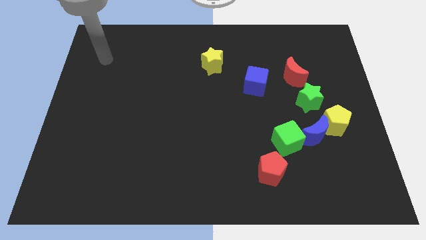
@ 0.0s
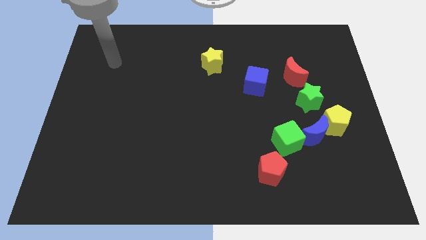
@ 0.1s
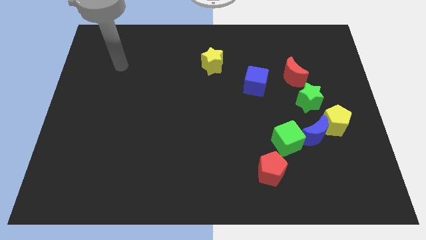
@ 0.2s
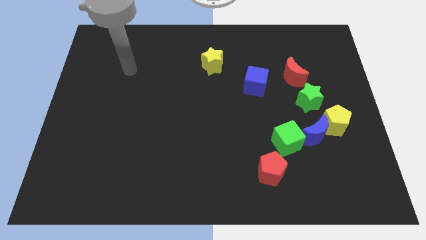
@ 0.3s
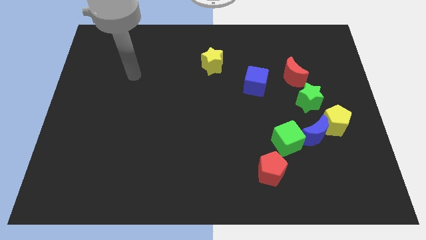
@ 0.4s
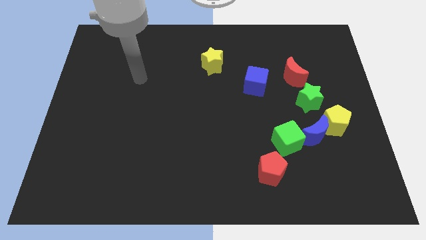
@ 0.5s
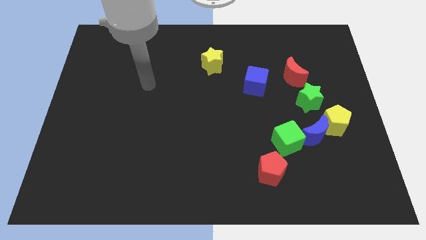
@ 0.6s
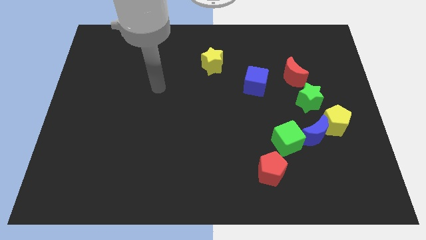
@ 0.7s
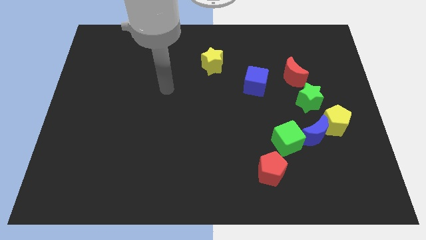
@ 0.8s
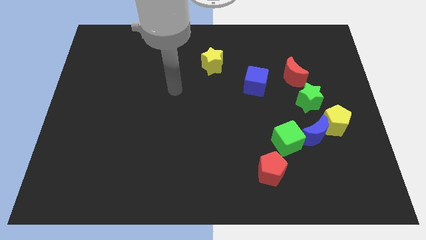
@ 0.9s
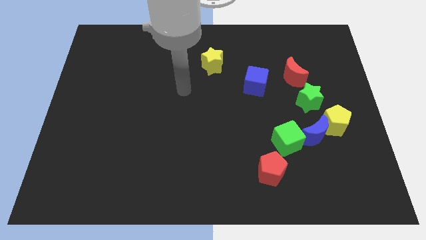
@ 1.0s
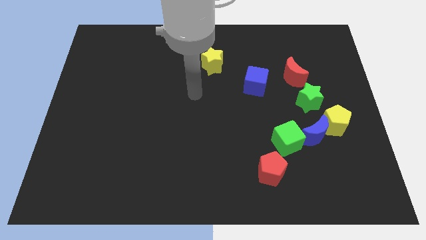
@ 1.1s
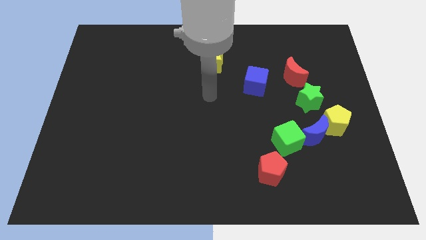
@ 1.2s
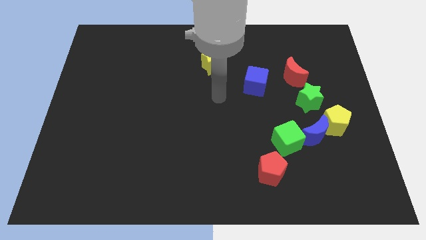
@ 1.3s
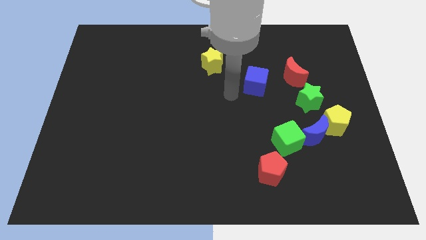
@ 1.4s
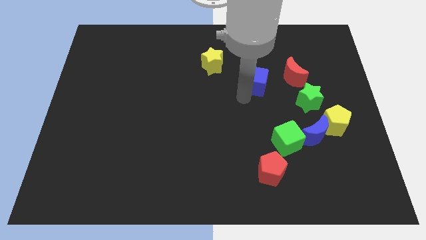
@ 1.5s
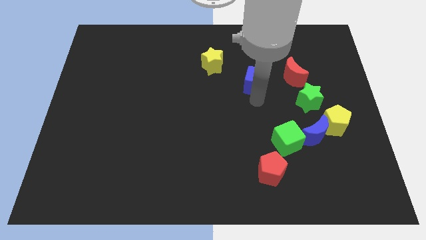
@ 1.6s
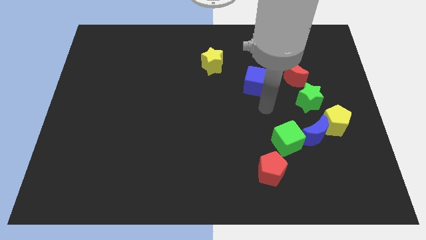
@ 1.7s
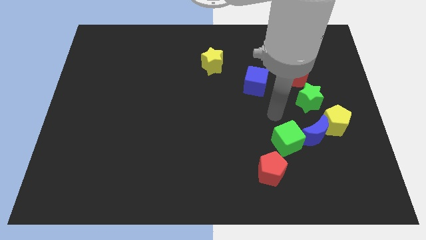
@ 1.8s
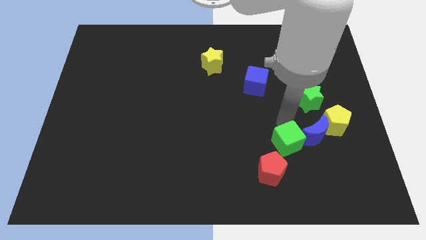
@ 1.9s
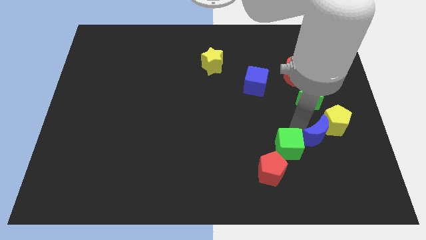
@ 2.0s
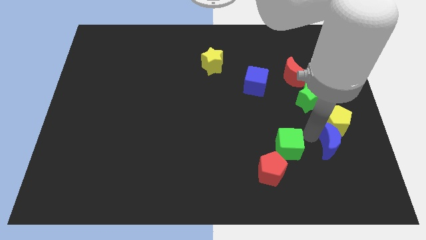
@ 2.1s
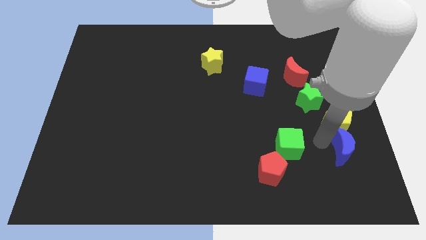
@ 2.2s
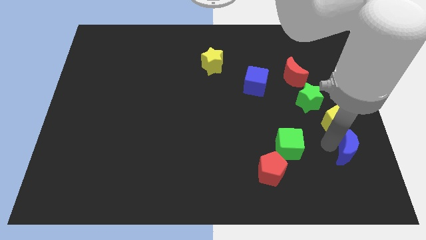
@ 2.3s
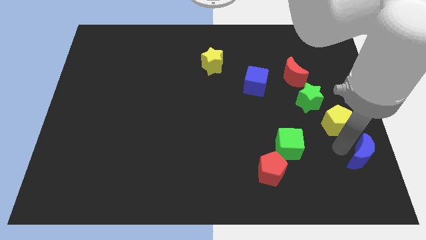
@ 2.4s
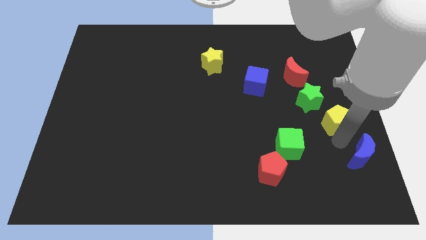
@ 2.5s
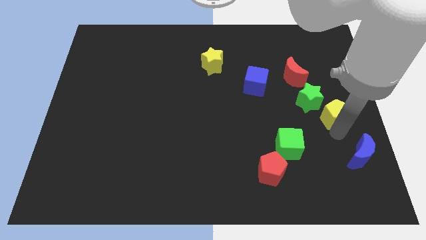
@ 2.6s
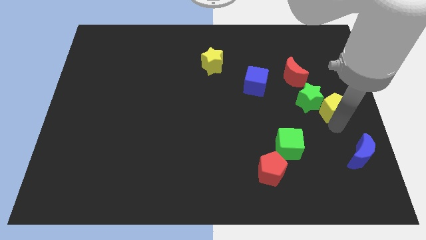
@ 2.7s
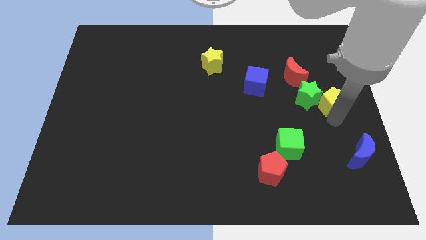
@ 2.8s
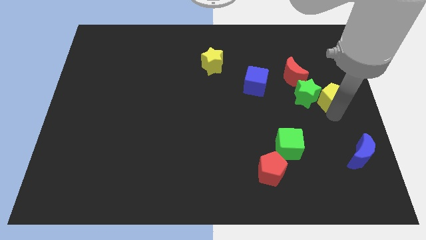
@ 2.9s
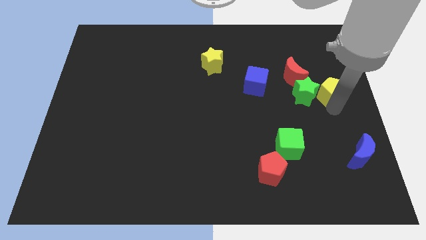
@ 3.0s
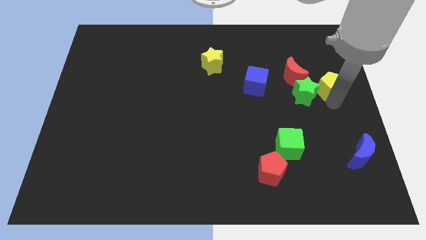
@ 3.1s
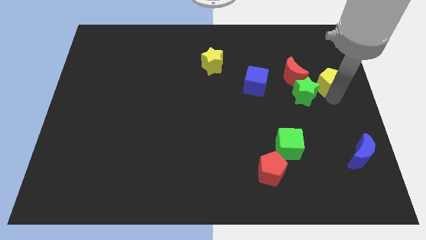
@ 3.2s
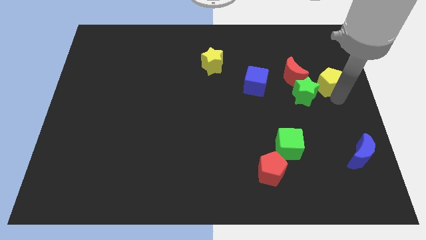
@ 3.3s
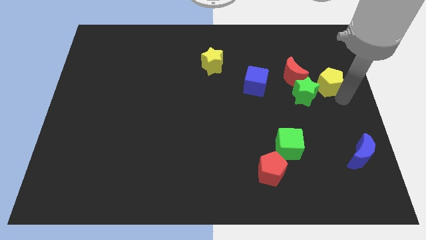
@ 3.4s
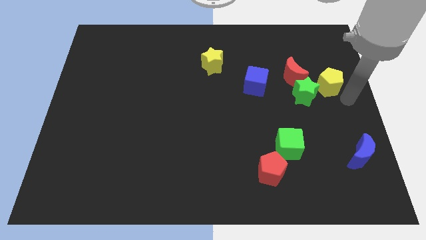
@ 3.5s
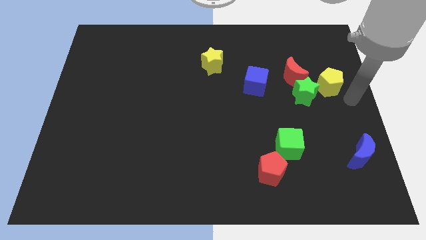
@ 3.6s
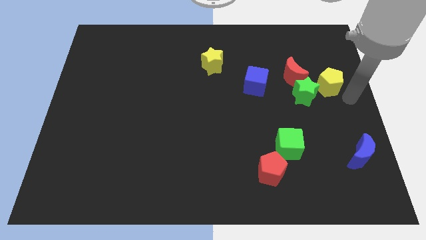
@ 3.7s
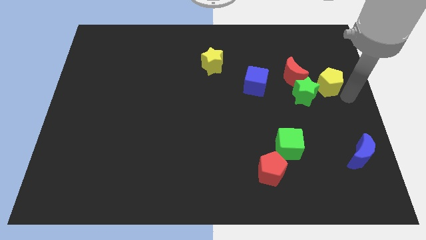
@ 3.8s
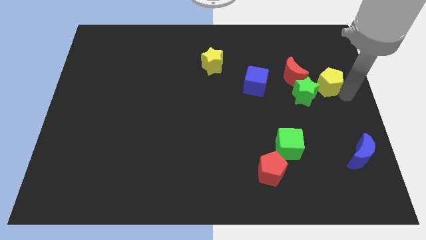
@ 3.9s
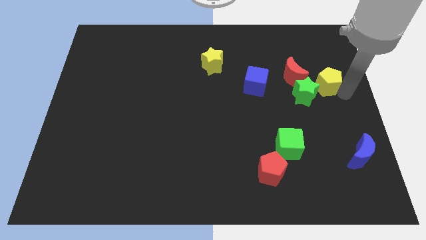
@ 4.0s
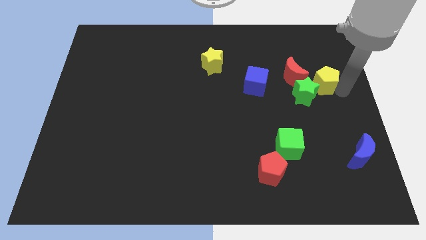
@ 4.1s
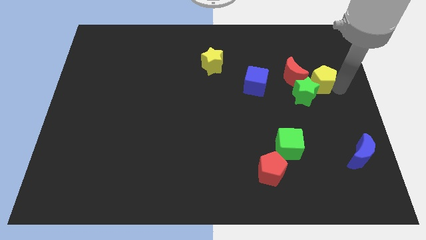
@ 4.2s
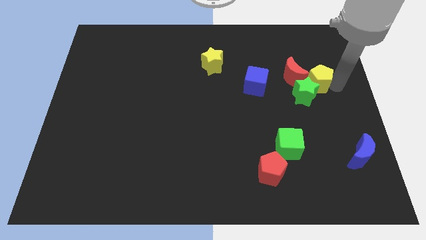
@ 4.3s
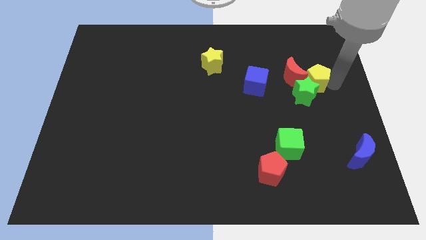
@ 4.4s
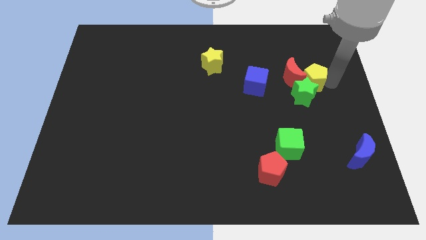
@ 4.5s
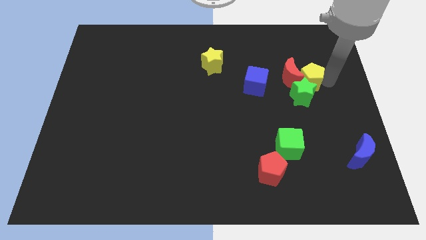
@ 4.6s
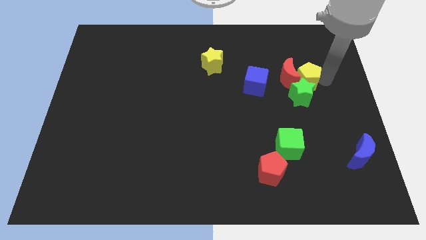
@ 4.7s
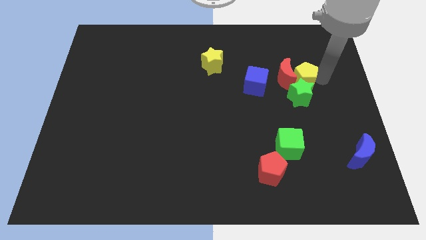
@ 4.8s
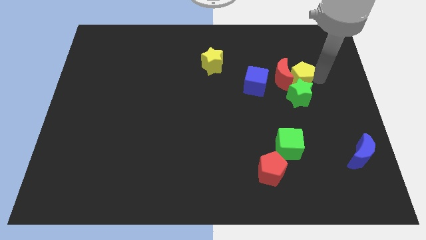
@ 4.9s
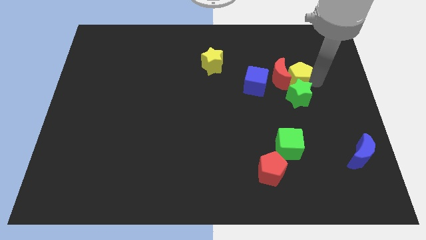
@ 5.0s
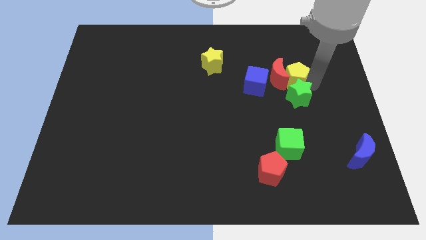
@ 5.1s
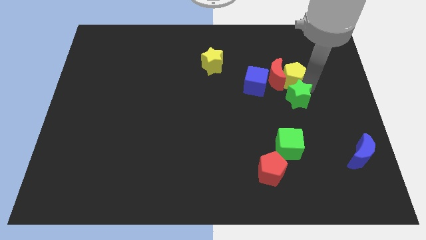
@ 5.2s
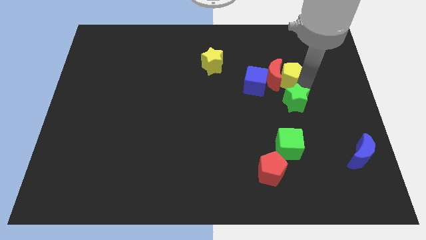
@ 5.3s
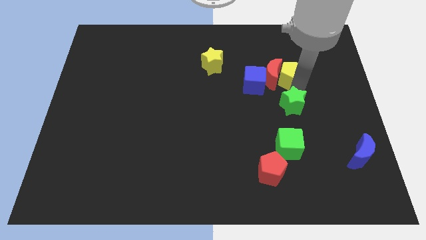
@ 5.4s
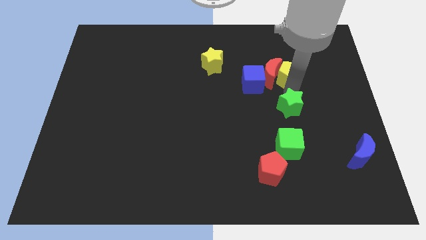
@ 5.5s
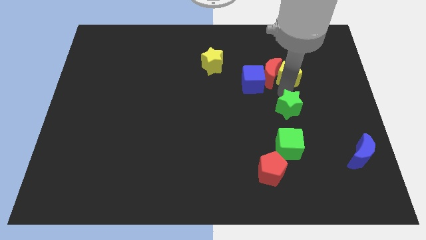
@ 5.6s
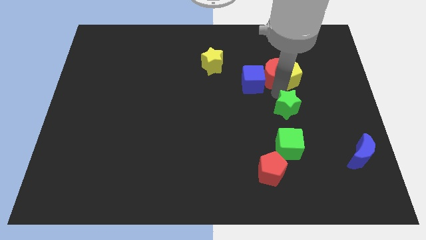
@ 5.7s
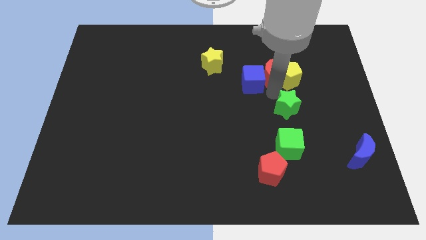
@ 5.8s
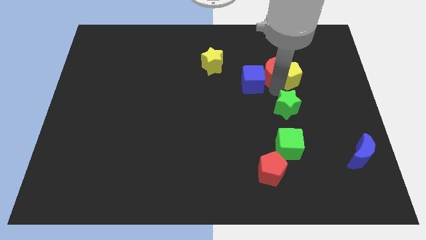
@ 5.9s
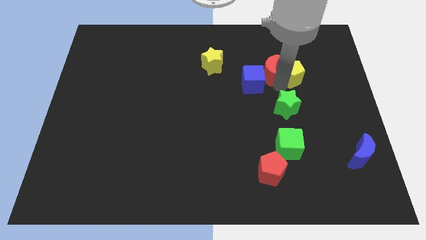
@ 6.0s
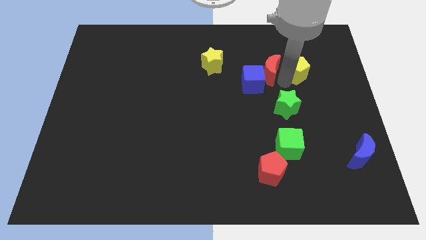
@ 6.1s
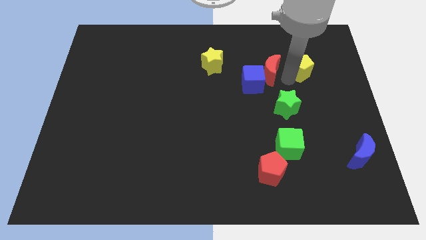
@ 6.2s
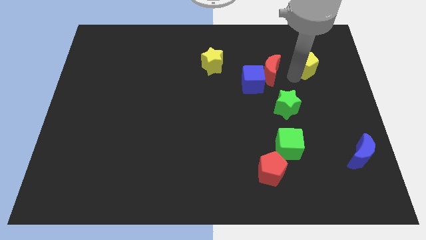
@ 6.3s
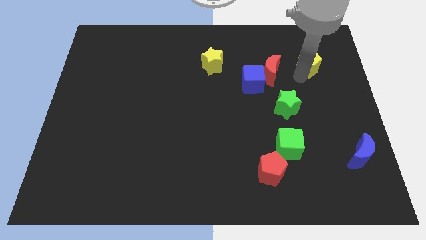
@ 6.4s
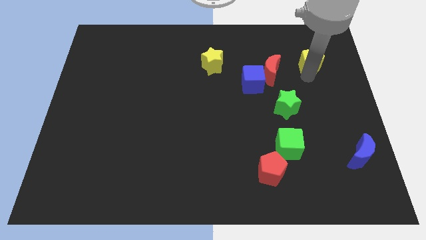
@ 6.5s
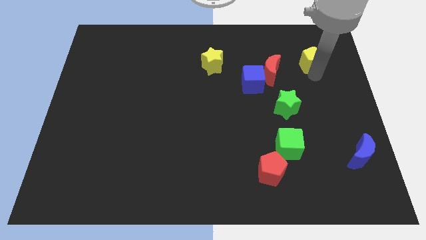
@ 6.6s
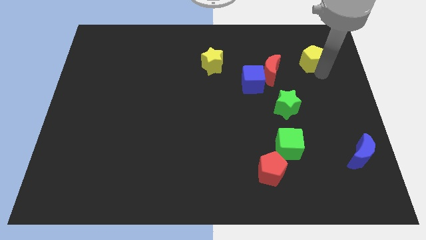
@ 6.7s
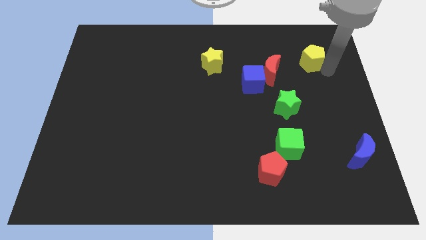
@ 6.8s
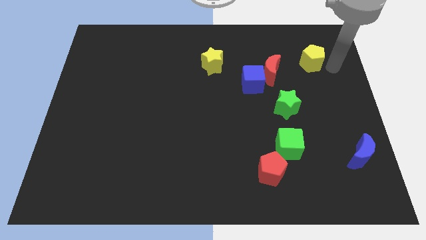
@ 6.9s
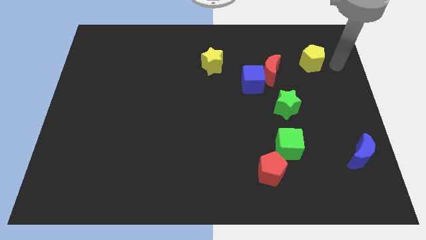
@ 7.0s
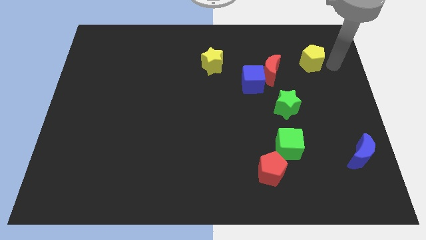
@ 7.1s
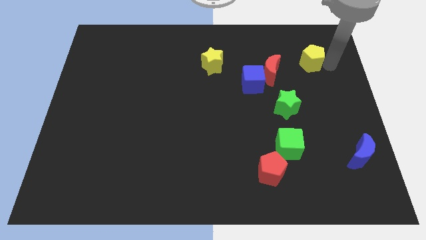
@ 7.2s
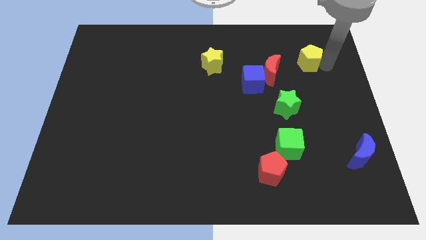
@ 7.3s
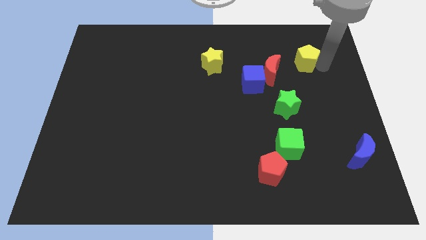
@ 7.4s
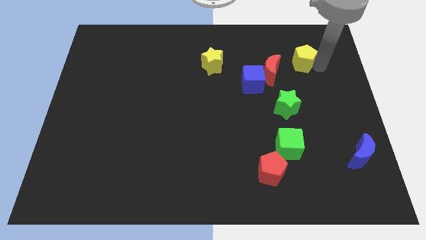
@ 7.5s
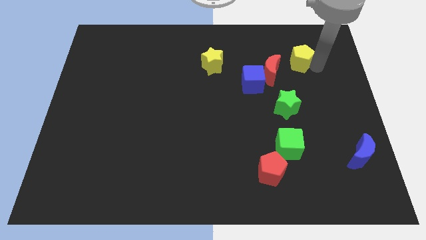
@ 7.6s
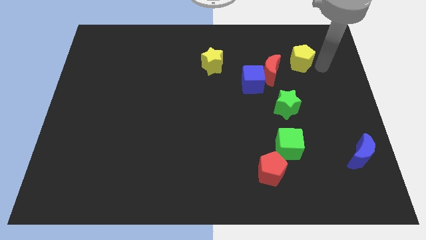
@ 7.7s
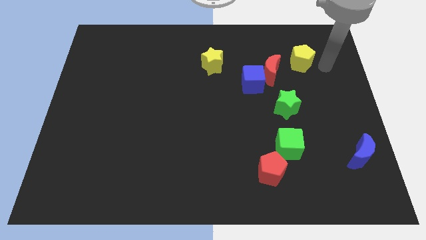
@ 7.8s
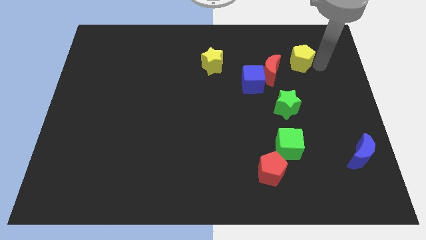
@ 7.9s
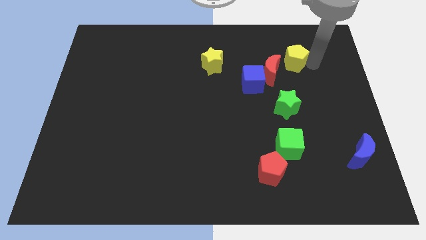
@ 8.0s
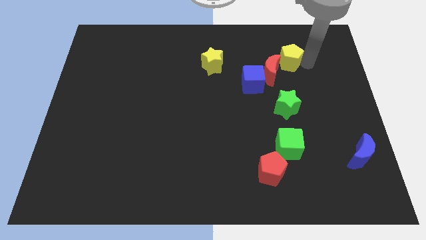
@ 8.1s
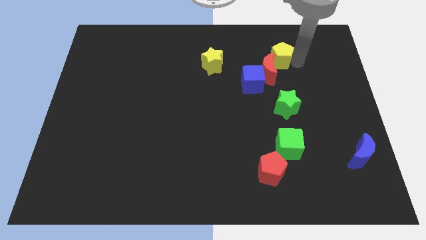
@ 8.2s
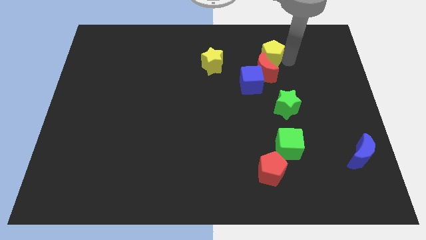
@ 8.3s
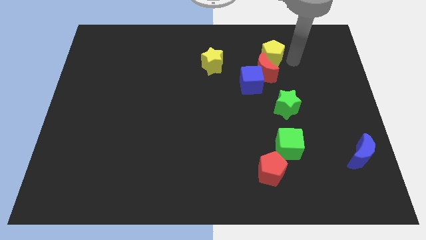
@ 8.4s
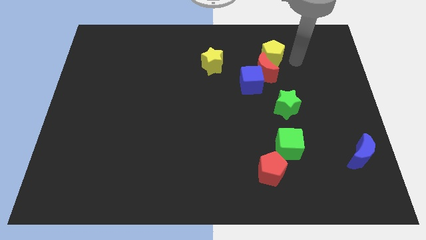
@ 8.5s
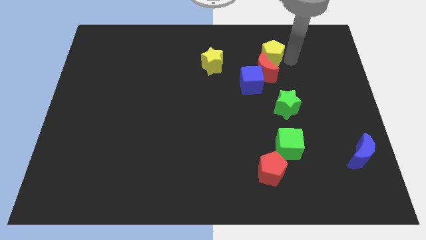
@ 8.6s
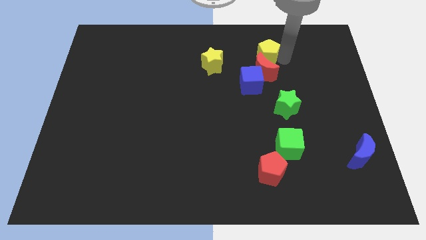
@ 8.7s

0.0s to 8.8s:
slide the yellow pentagon to the top of the blue cube
